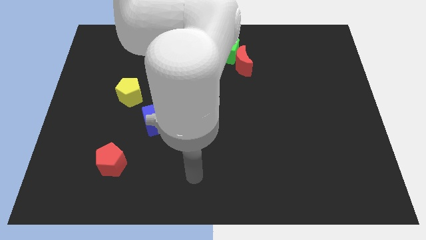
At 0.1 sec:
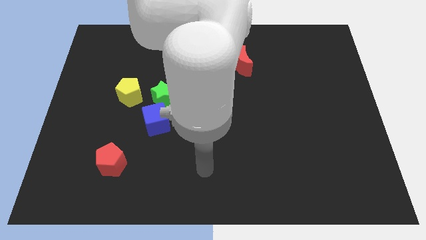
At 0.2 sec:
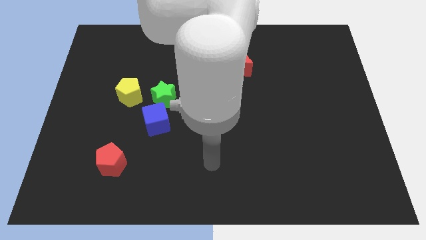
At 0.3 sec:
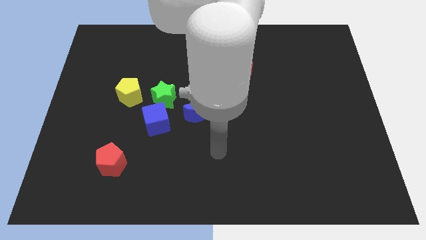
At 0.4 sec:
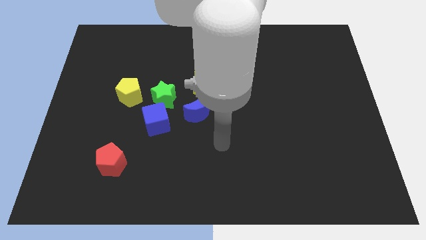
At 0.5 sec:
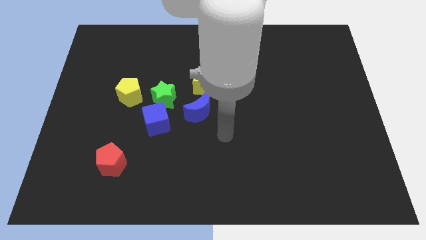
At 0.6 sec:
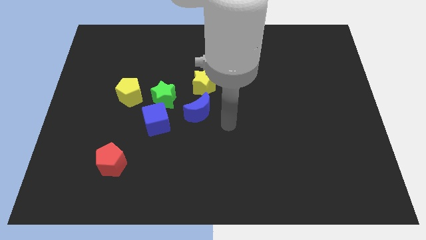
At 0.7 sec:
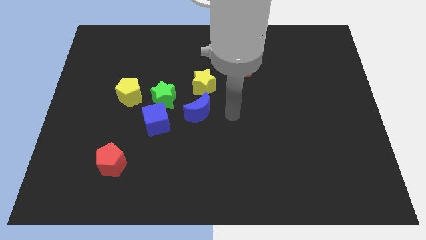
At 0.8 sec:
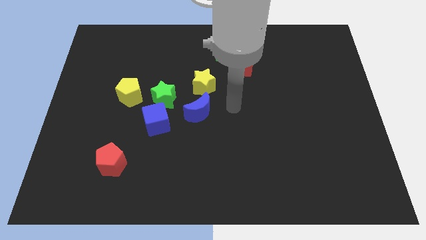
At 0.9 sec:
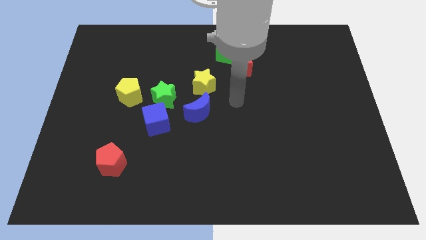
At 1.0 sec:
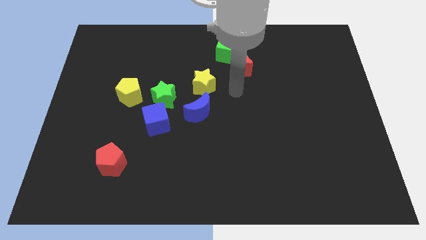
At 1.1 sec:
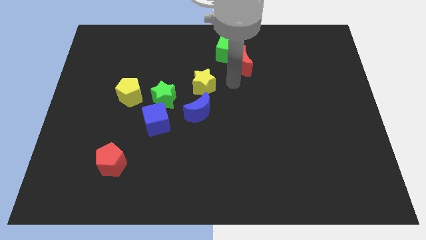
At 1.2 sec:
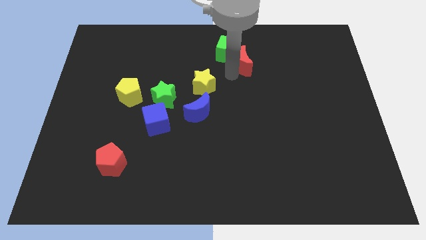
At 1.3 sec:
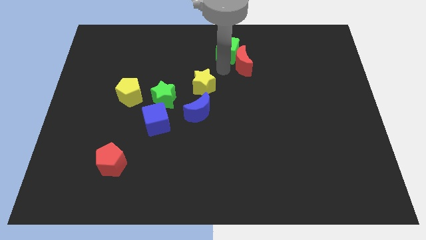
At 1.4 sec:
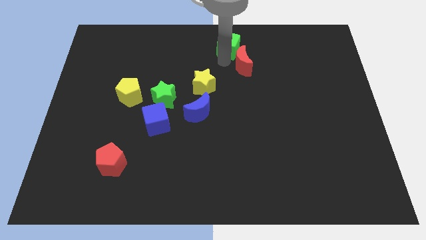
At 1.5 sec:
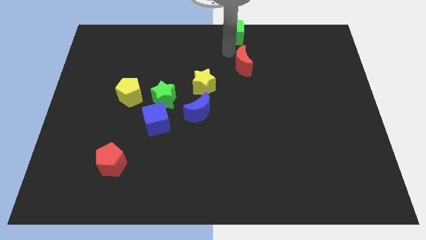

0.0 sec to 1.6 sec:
move the red moon away from the green cube

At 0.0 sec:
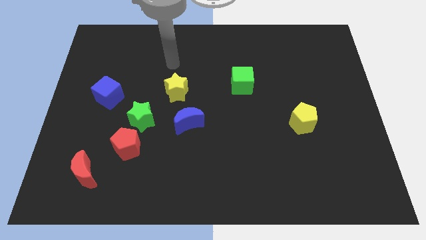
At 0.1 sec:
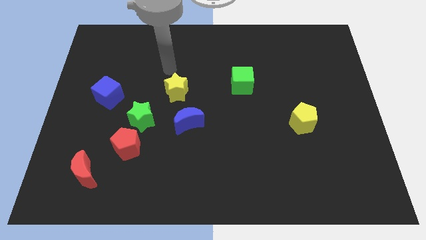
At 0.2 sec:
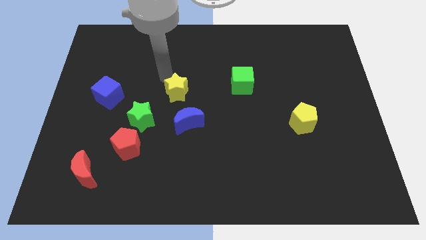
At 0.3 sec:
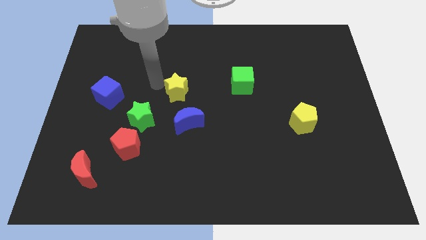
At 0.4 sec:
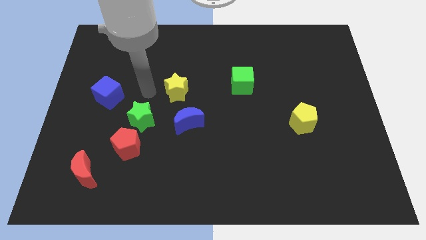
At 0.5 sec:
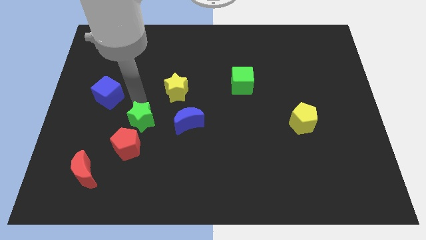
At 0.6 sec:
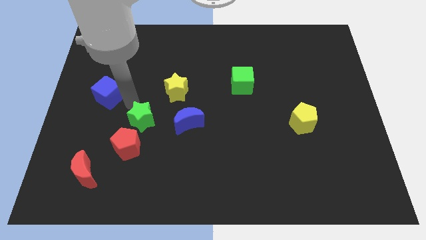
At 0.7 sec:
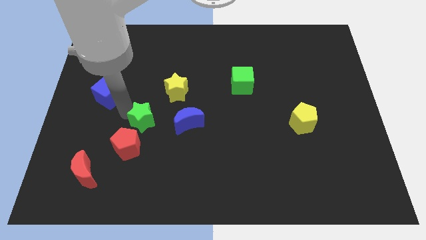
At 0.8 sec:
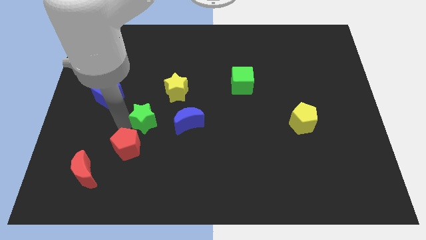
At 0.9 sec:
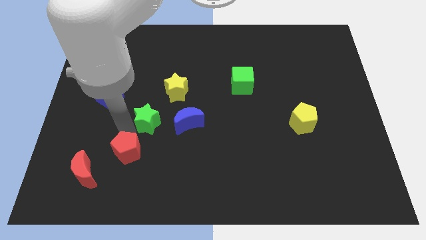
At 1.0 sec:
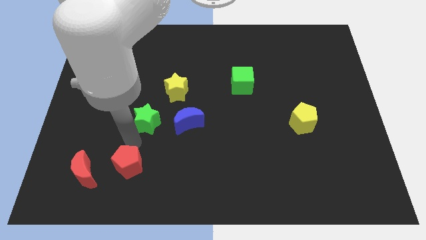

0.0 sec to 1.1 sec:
separate the green star from the red pentagon

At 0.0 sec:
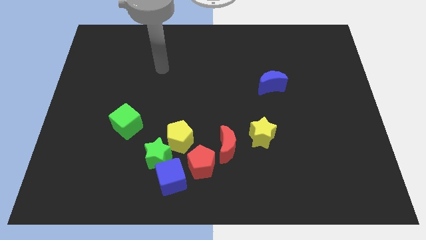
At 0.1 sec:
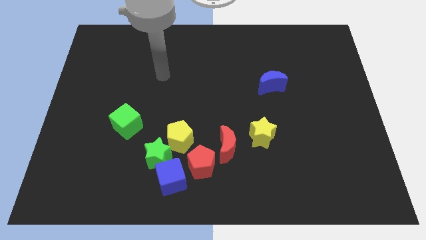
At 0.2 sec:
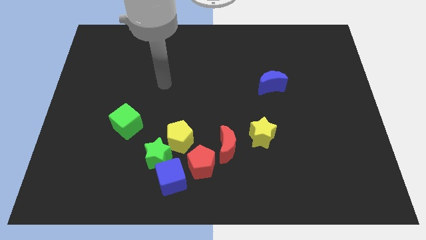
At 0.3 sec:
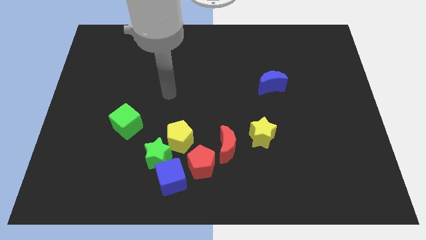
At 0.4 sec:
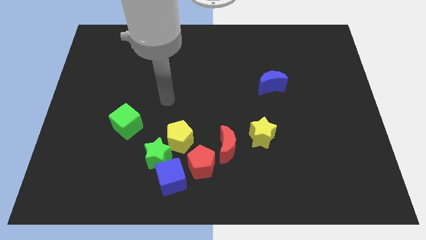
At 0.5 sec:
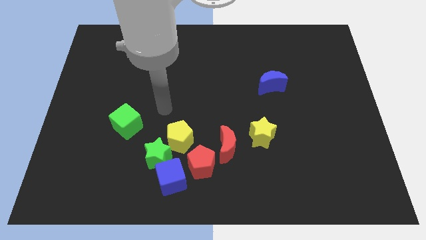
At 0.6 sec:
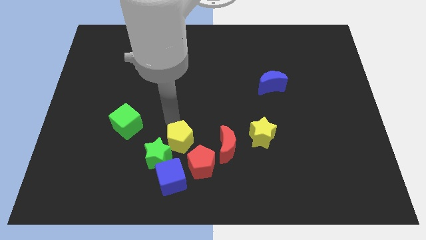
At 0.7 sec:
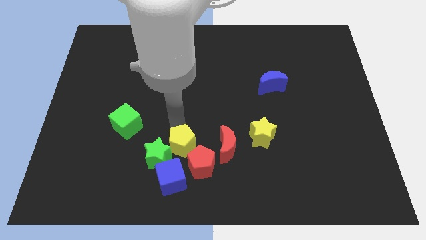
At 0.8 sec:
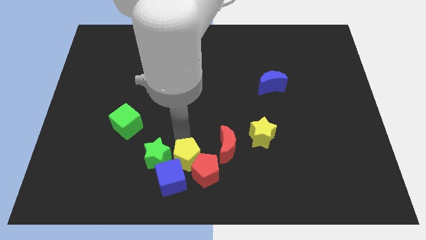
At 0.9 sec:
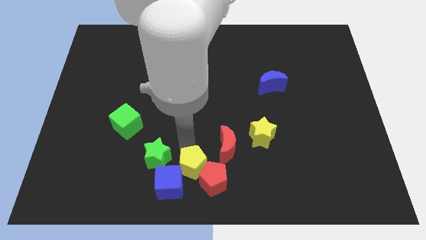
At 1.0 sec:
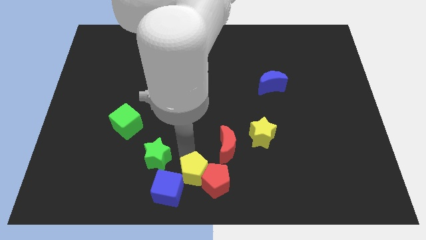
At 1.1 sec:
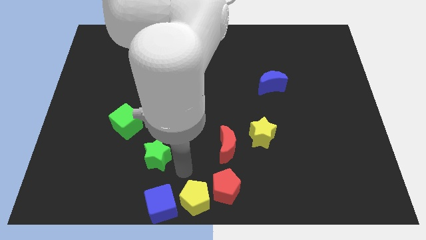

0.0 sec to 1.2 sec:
move the green star away from the blue cube, yellow pentagon, and red pentagon

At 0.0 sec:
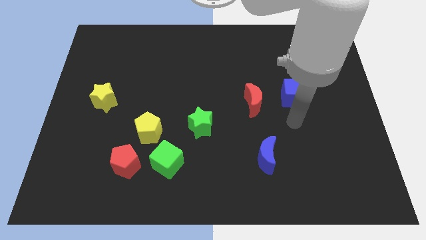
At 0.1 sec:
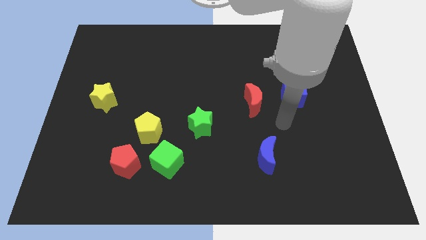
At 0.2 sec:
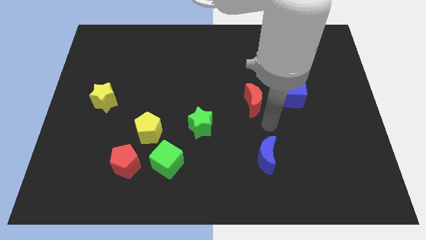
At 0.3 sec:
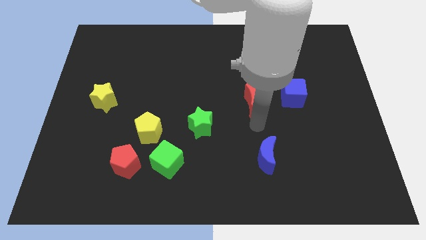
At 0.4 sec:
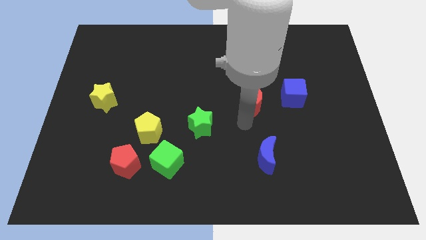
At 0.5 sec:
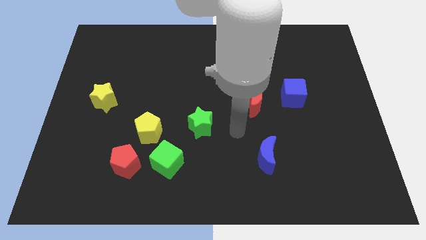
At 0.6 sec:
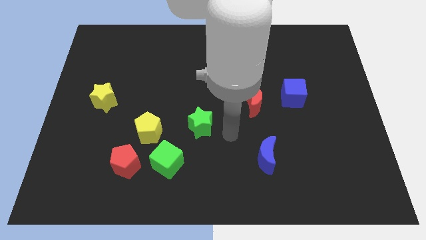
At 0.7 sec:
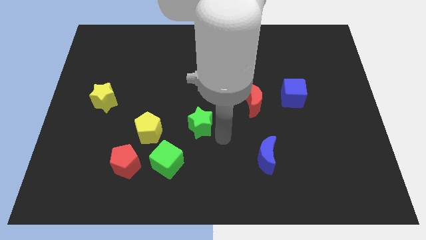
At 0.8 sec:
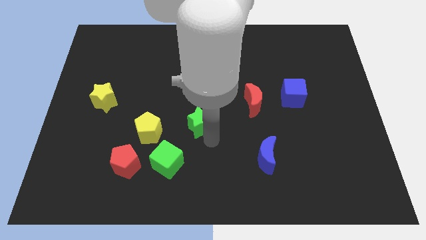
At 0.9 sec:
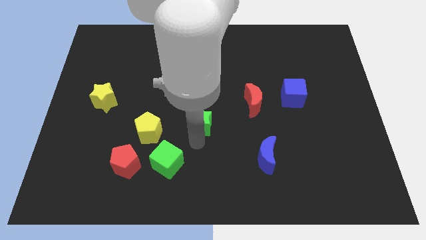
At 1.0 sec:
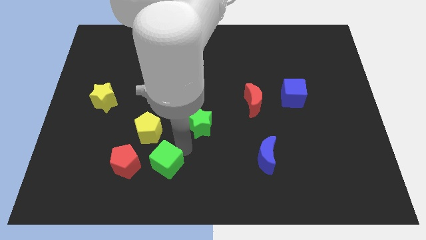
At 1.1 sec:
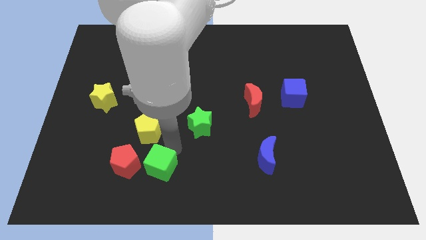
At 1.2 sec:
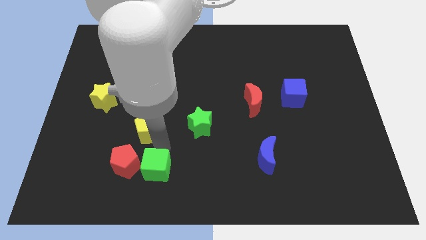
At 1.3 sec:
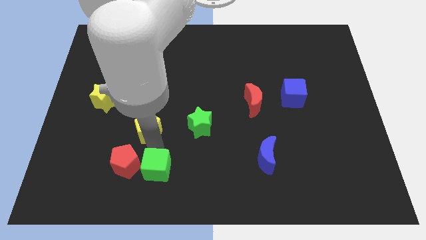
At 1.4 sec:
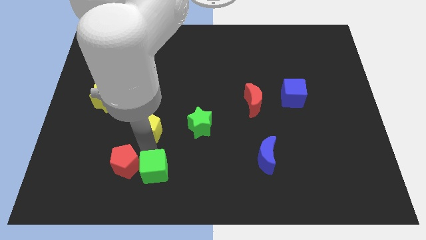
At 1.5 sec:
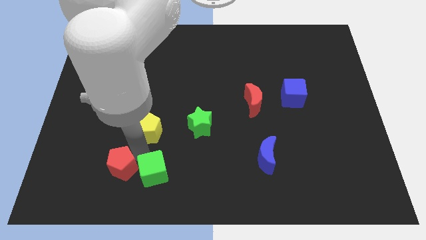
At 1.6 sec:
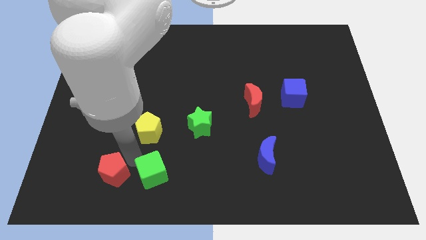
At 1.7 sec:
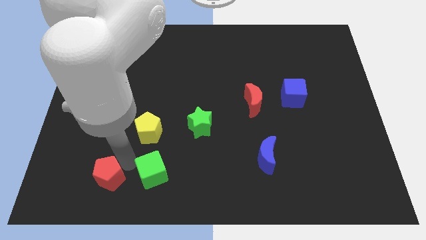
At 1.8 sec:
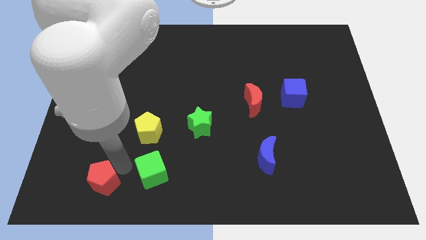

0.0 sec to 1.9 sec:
pull the red pentagon apart from the green cube and yellow pentagon

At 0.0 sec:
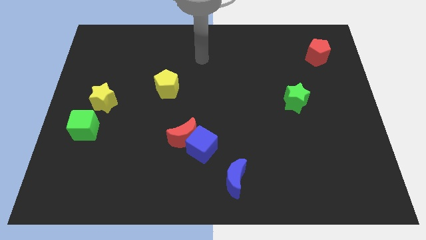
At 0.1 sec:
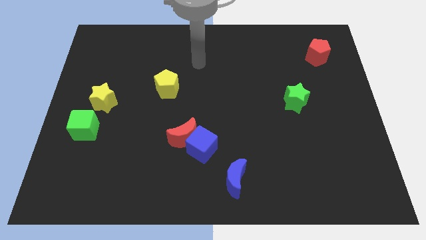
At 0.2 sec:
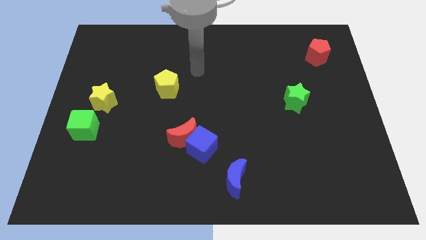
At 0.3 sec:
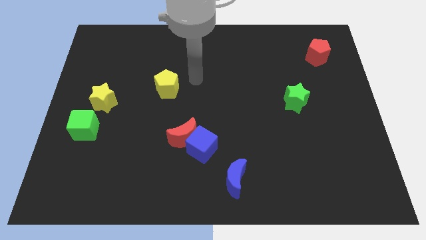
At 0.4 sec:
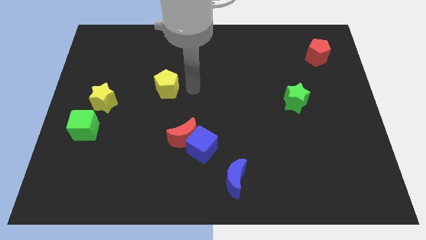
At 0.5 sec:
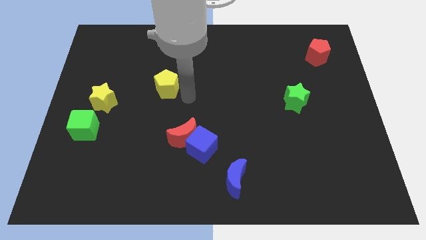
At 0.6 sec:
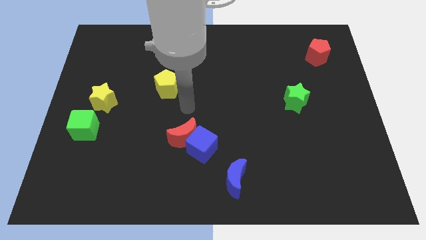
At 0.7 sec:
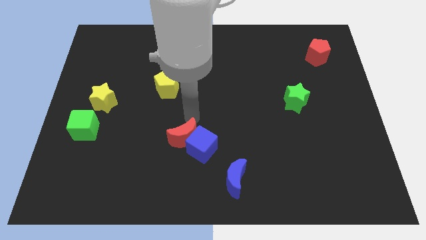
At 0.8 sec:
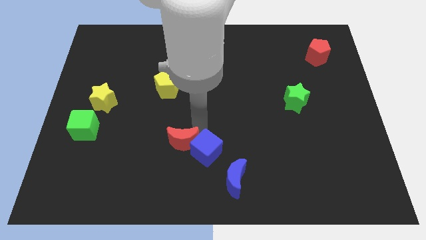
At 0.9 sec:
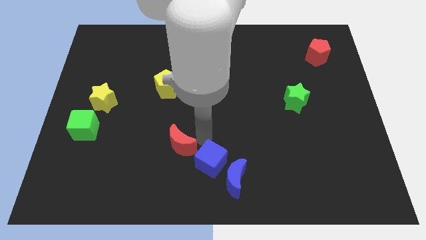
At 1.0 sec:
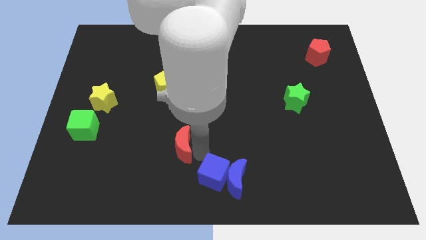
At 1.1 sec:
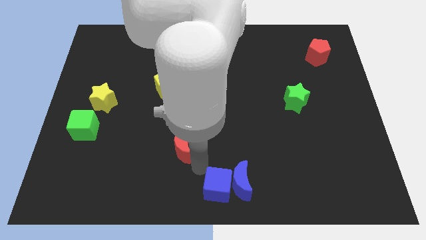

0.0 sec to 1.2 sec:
pull the red moon apart from the blue cube

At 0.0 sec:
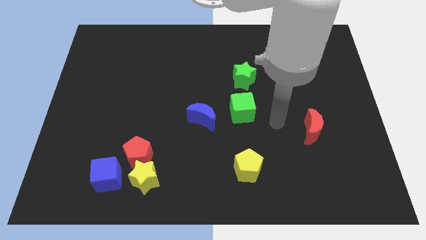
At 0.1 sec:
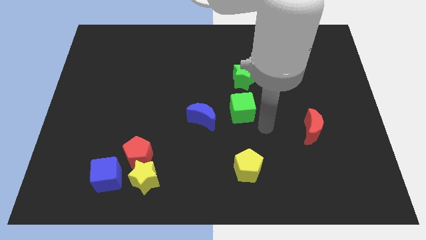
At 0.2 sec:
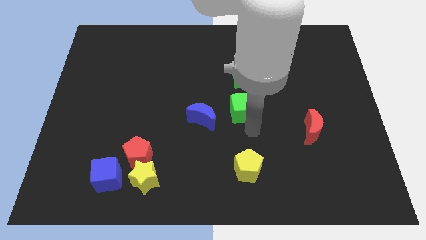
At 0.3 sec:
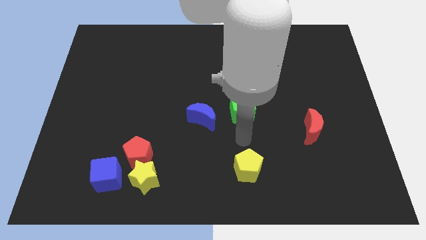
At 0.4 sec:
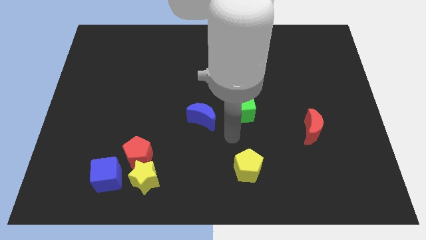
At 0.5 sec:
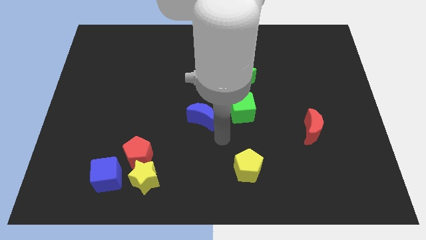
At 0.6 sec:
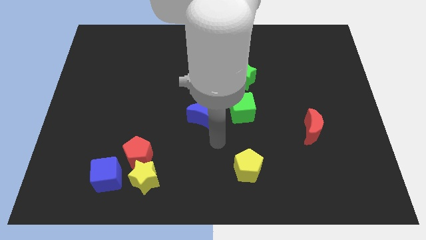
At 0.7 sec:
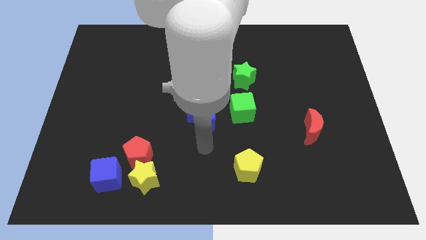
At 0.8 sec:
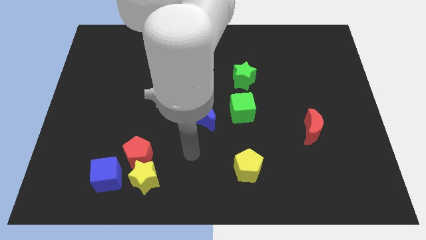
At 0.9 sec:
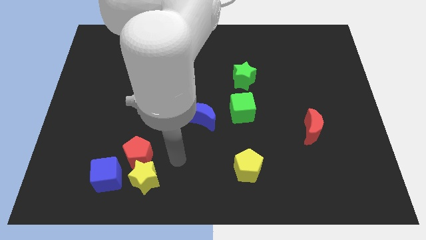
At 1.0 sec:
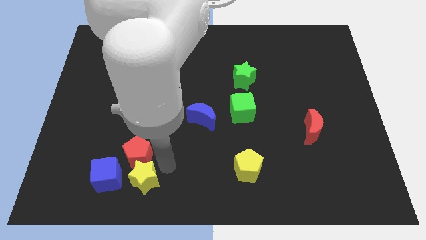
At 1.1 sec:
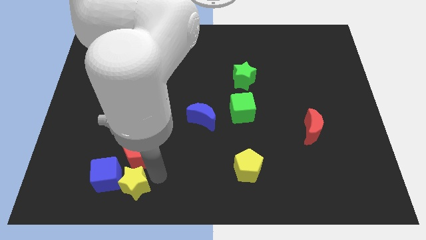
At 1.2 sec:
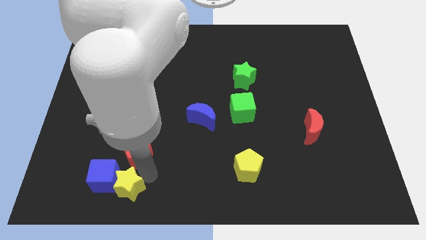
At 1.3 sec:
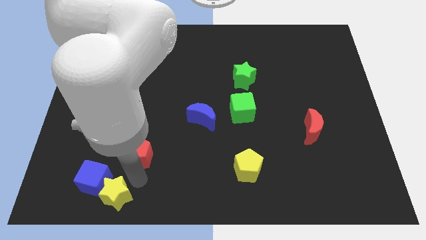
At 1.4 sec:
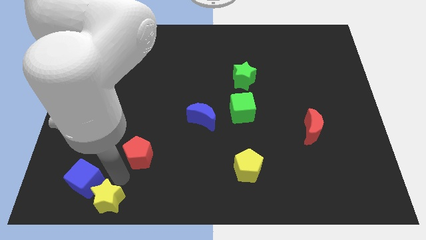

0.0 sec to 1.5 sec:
pull the red pentagon apart from the yellow star and blue cube

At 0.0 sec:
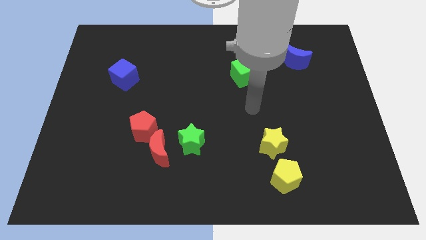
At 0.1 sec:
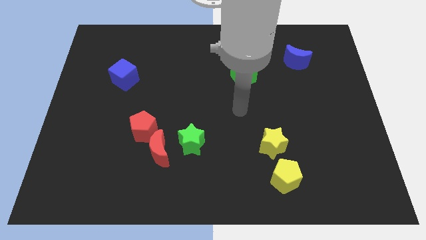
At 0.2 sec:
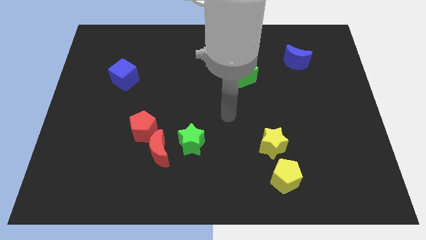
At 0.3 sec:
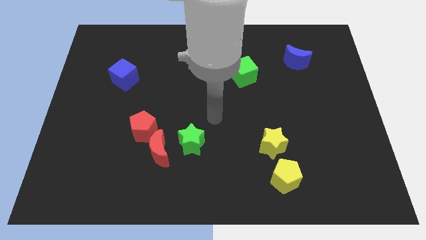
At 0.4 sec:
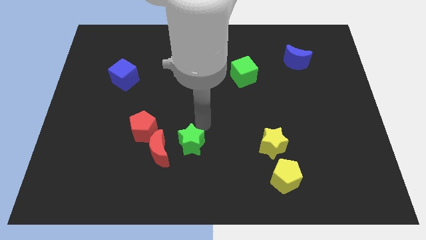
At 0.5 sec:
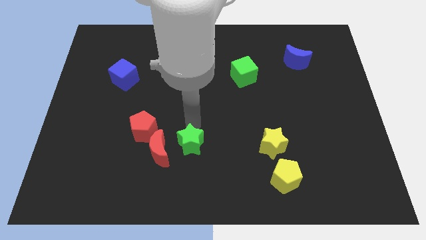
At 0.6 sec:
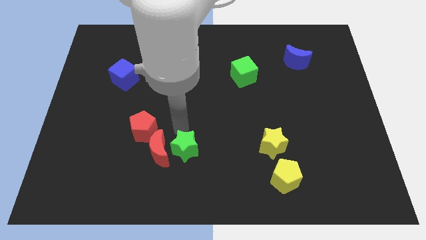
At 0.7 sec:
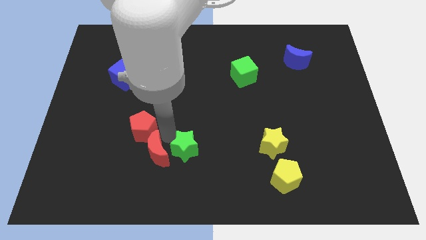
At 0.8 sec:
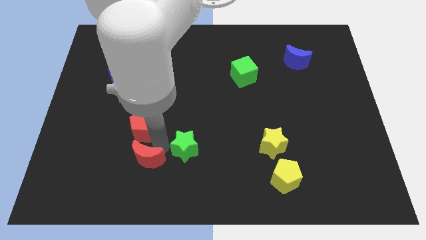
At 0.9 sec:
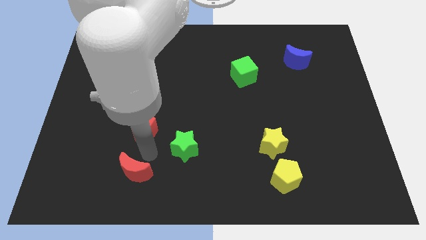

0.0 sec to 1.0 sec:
separate the red pentagon from the red moon
